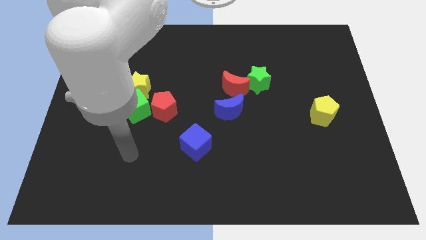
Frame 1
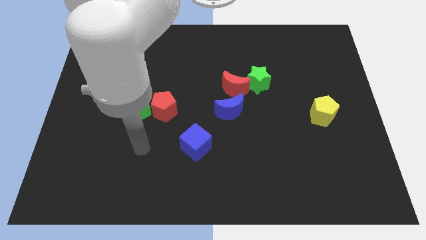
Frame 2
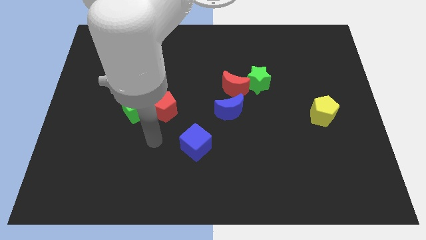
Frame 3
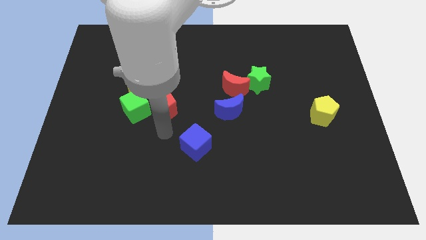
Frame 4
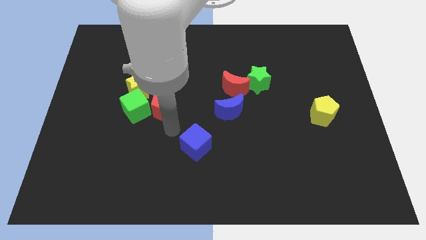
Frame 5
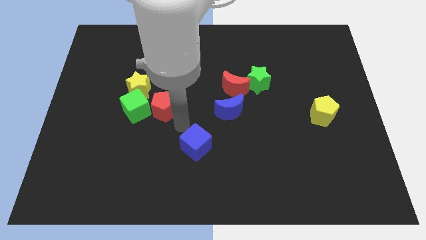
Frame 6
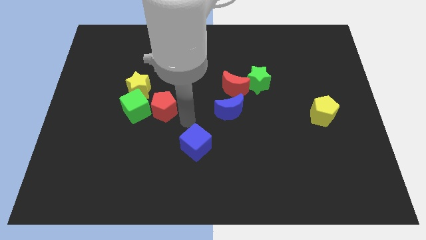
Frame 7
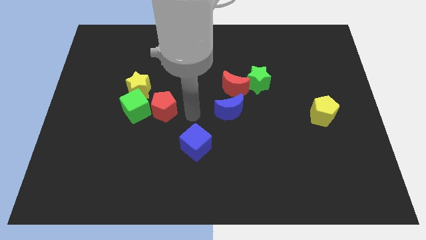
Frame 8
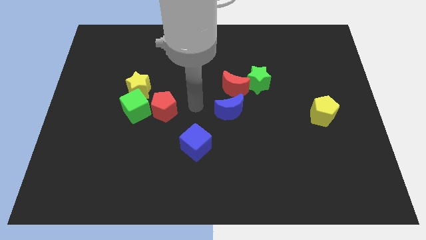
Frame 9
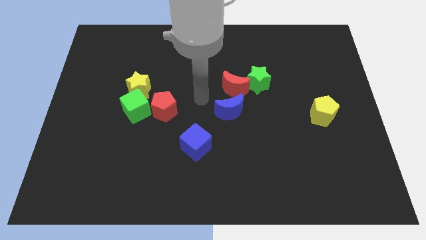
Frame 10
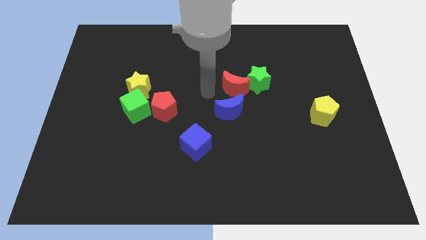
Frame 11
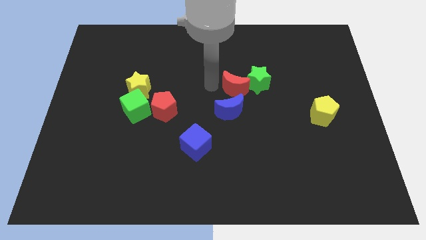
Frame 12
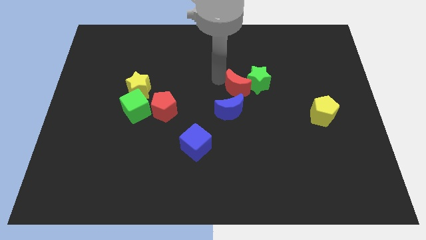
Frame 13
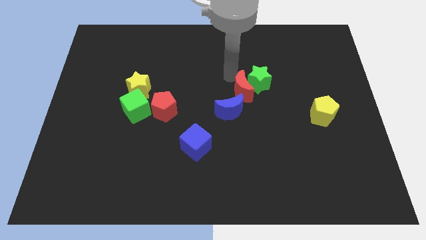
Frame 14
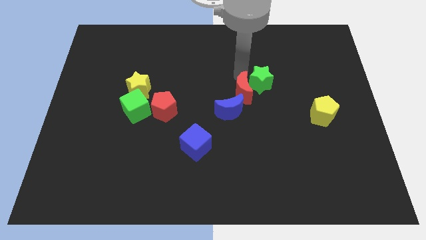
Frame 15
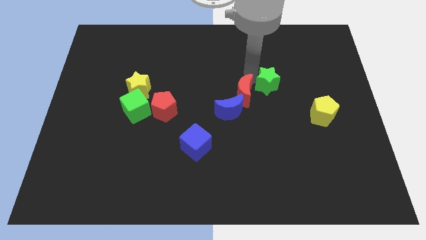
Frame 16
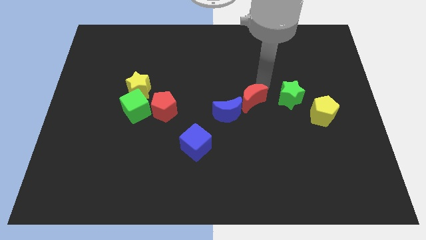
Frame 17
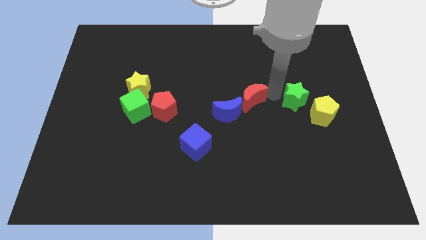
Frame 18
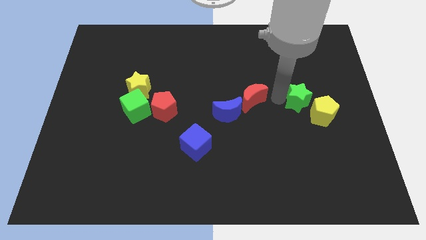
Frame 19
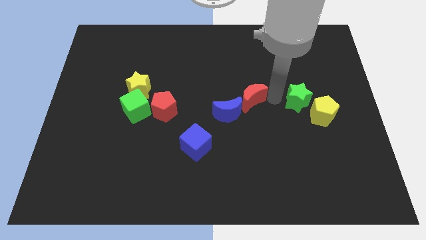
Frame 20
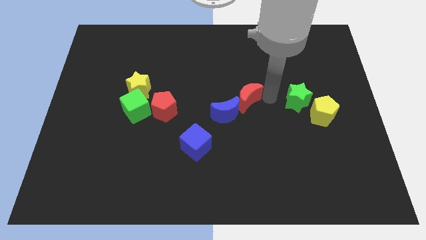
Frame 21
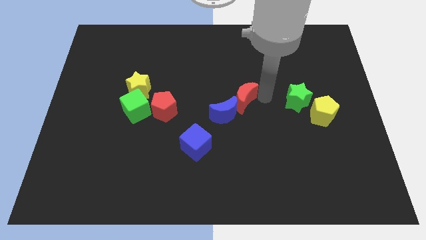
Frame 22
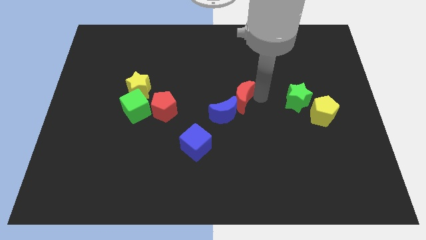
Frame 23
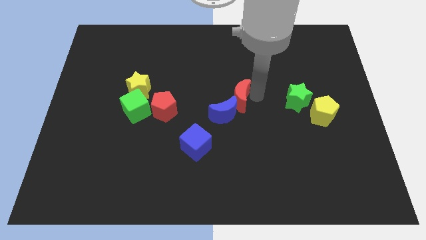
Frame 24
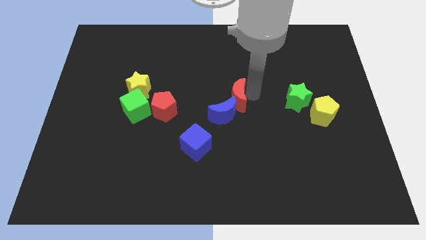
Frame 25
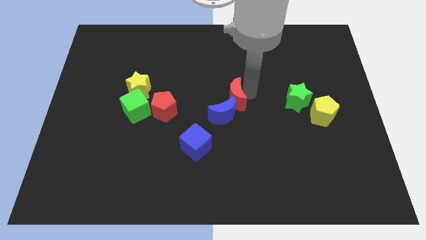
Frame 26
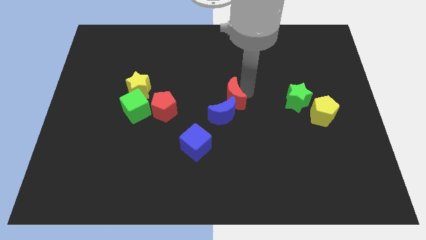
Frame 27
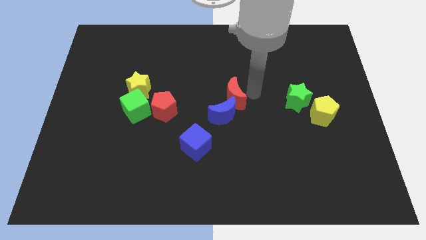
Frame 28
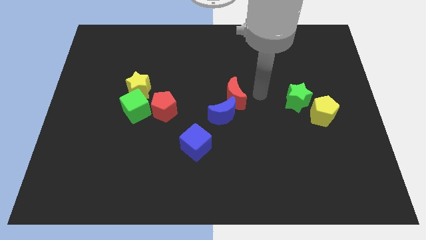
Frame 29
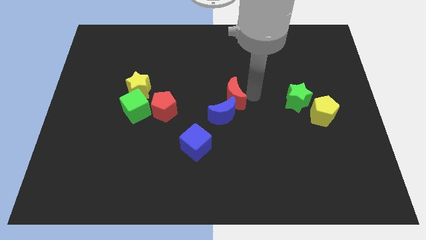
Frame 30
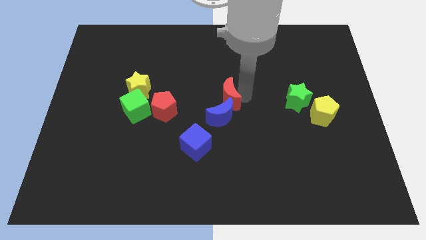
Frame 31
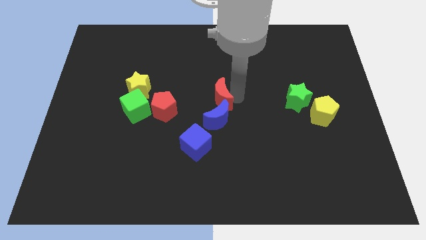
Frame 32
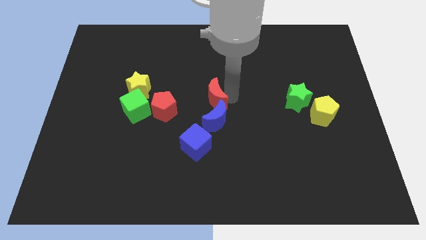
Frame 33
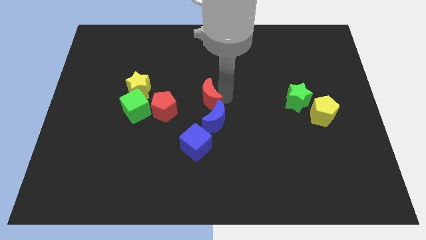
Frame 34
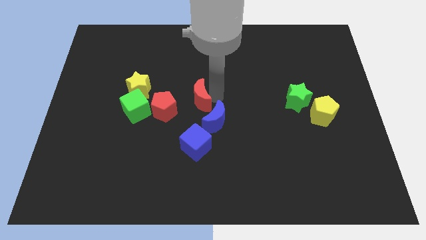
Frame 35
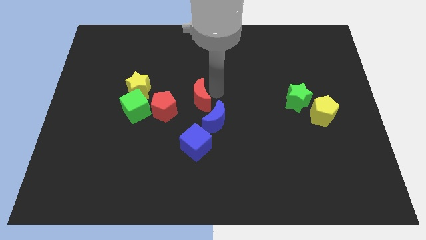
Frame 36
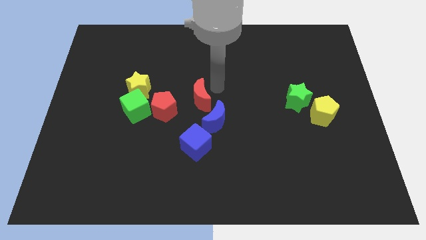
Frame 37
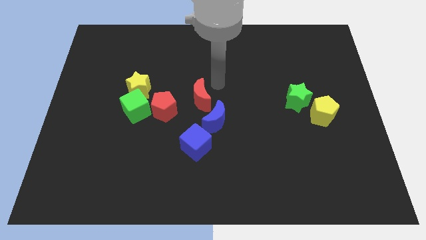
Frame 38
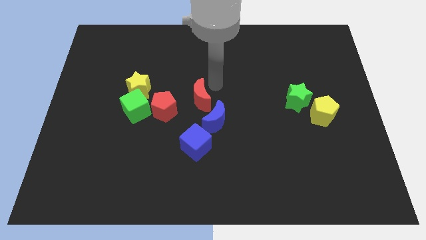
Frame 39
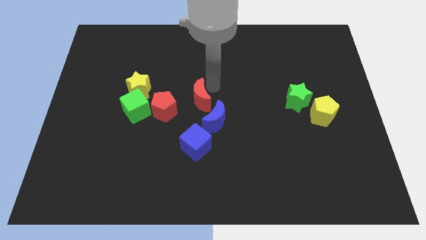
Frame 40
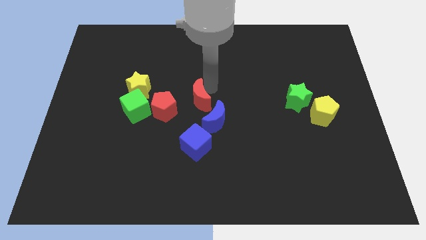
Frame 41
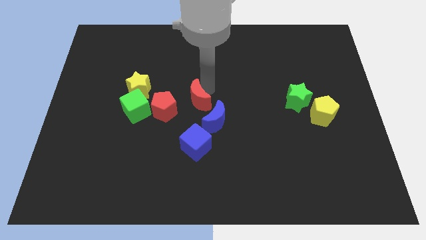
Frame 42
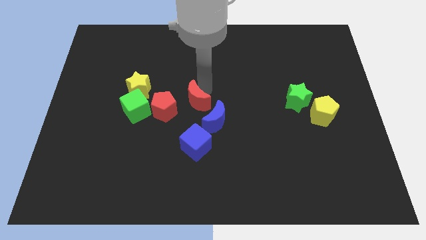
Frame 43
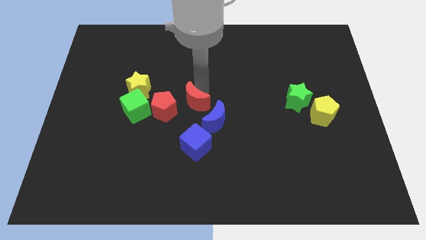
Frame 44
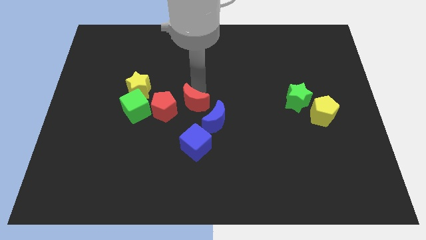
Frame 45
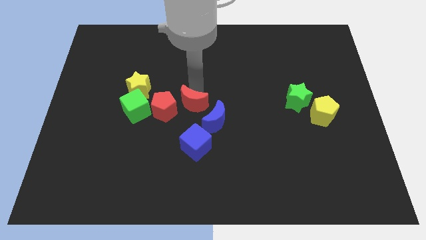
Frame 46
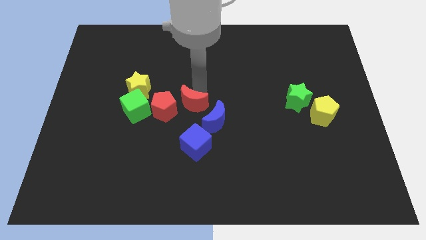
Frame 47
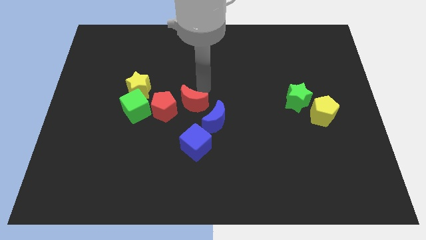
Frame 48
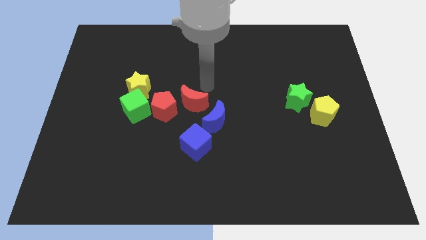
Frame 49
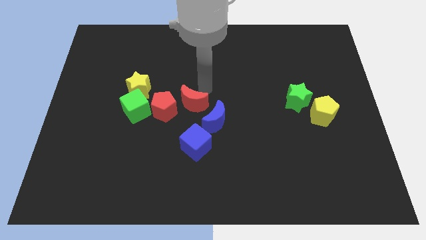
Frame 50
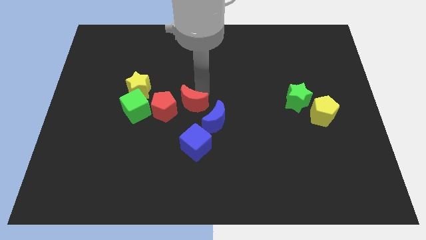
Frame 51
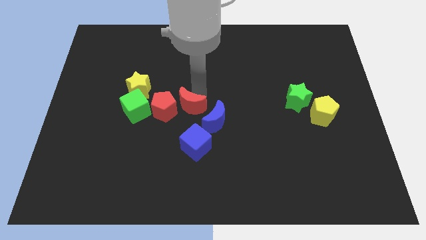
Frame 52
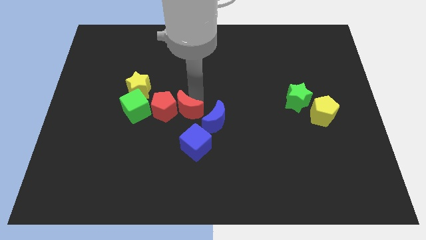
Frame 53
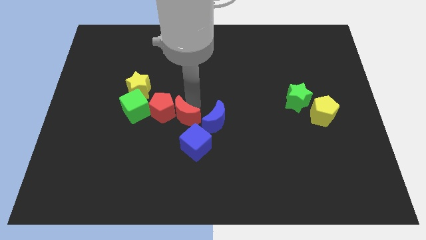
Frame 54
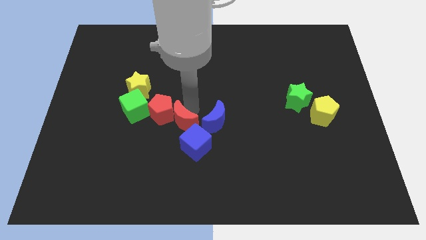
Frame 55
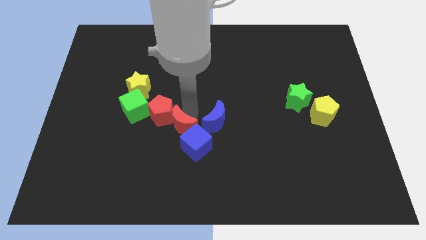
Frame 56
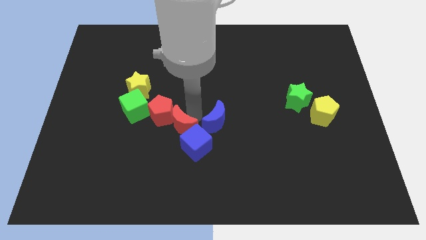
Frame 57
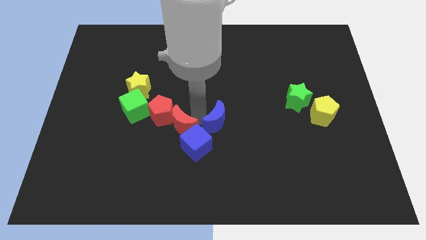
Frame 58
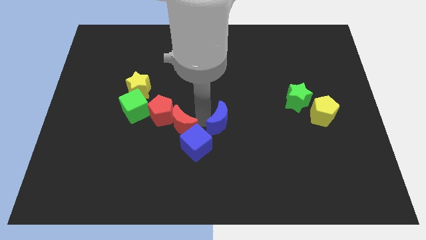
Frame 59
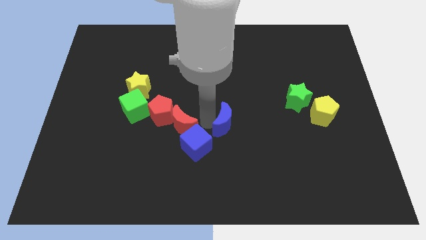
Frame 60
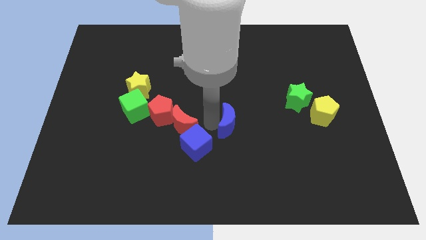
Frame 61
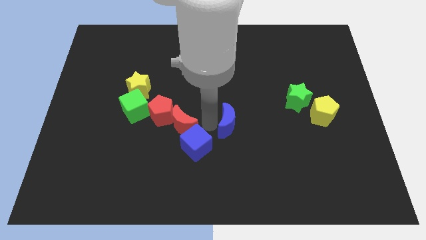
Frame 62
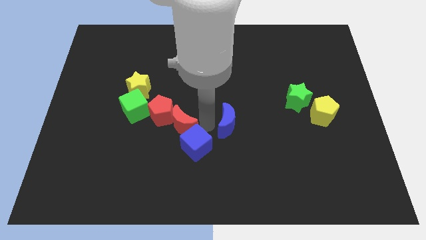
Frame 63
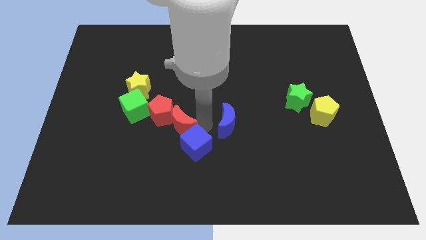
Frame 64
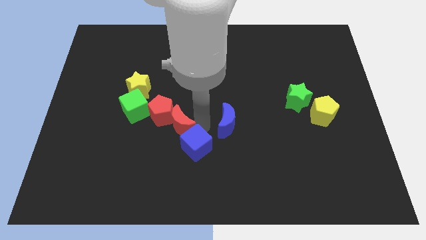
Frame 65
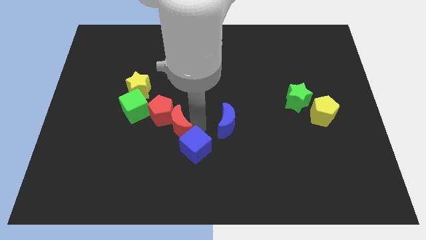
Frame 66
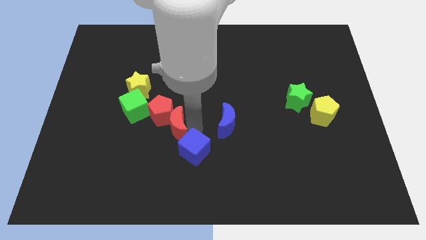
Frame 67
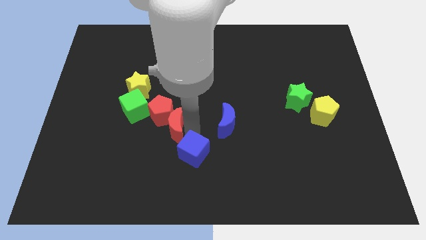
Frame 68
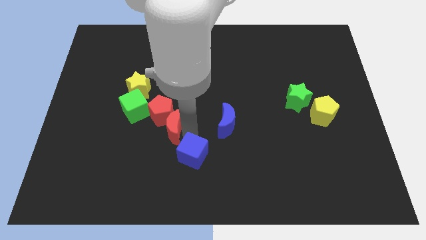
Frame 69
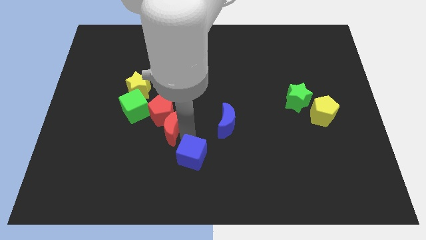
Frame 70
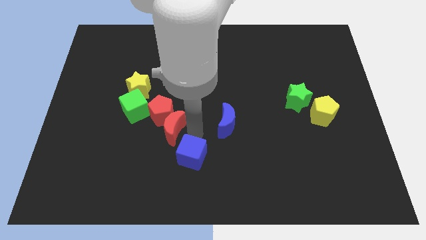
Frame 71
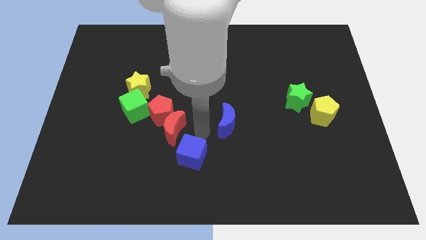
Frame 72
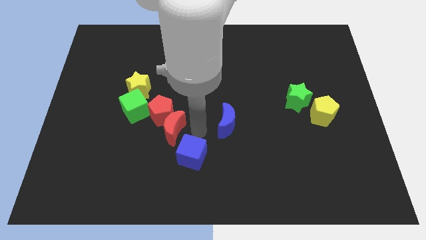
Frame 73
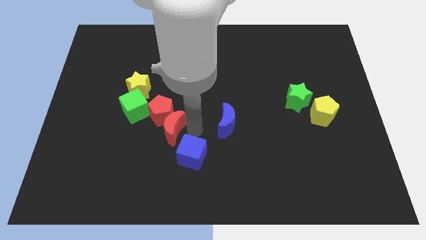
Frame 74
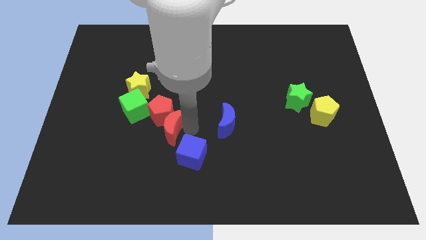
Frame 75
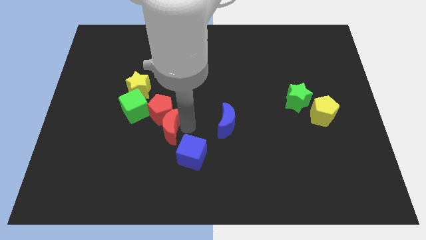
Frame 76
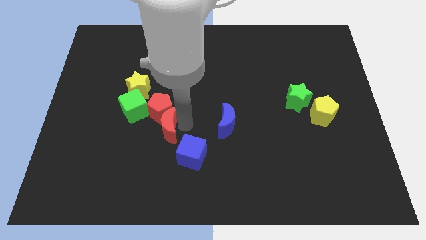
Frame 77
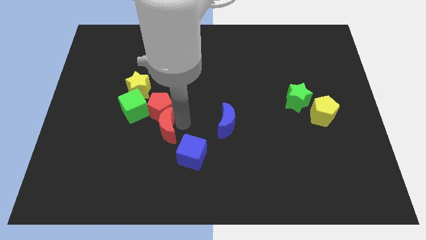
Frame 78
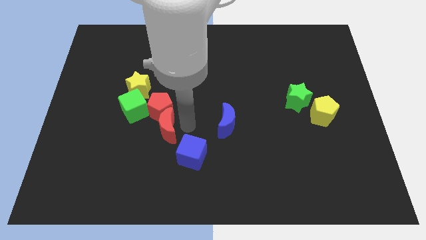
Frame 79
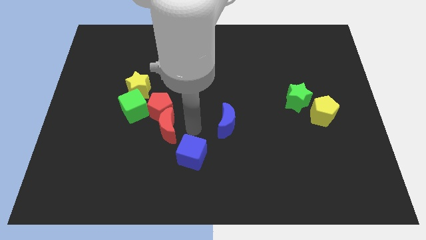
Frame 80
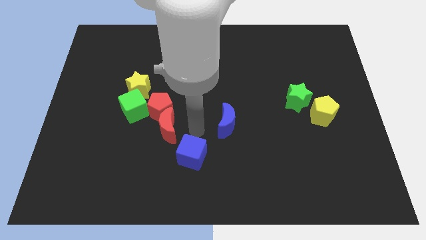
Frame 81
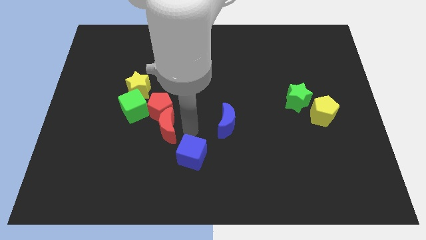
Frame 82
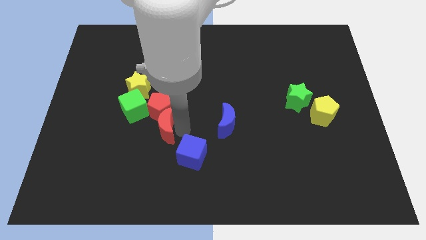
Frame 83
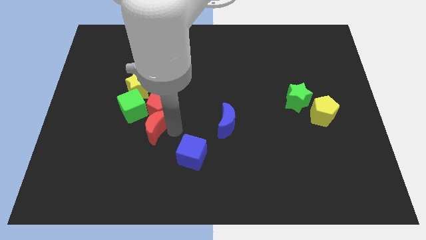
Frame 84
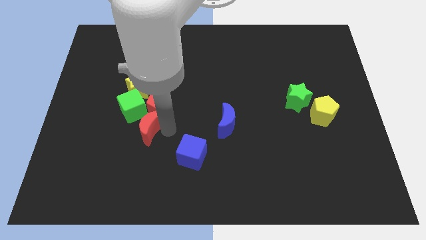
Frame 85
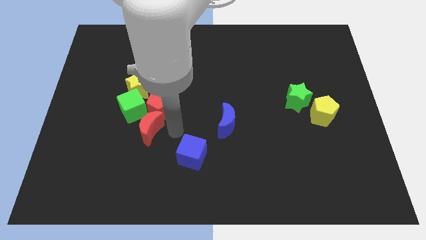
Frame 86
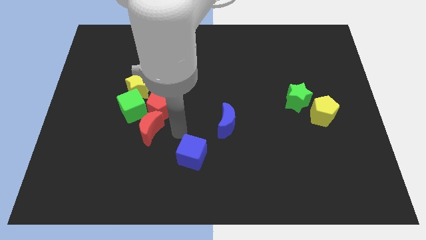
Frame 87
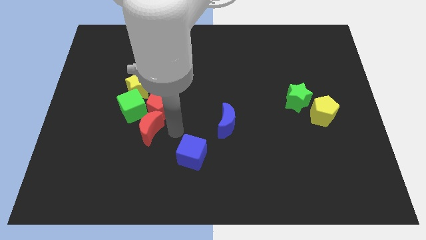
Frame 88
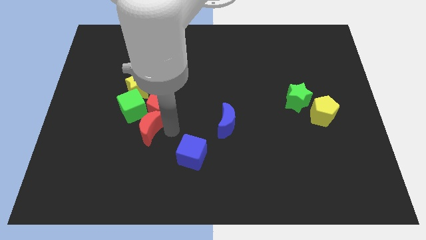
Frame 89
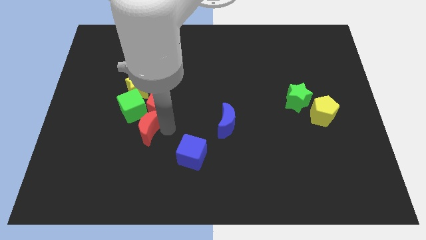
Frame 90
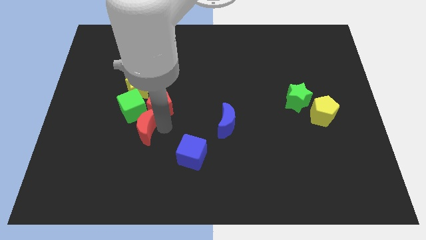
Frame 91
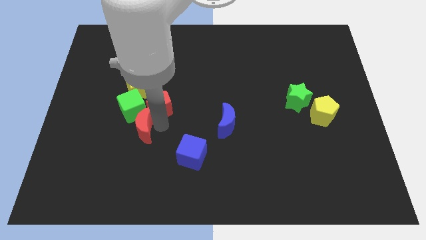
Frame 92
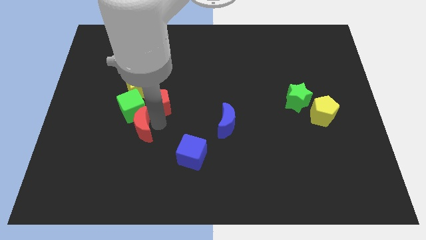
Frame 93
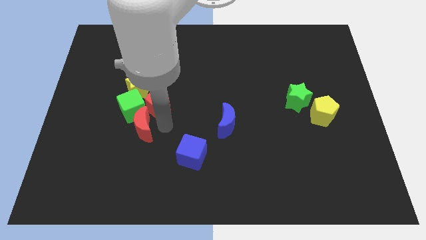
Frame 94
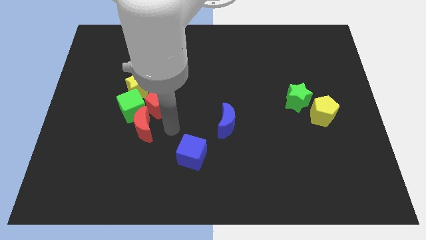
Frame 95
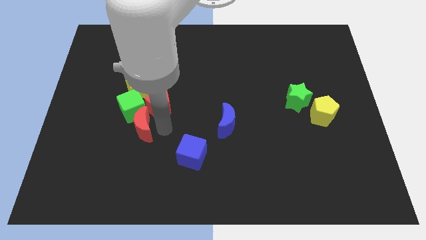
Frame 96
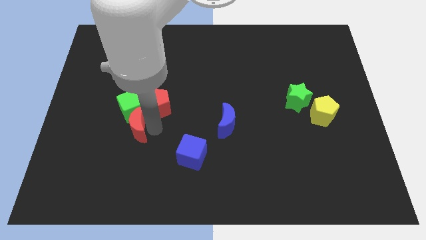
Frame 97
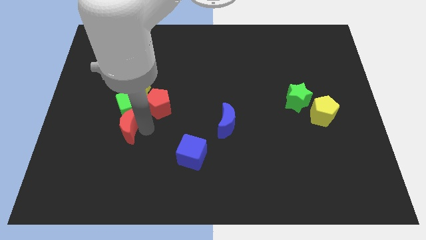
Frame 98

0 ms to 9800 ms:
slide the red moon diagonally down and to the left of the green cube
